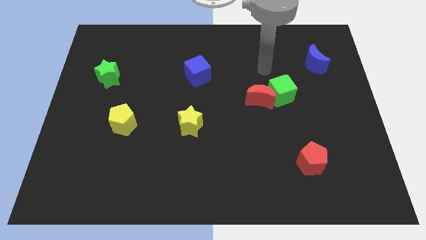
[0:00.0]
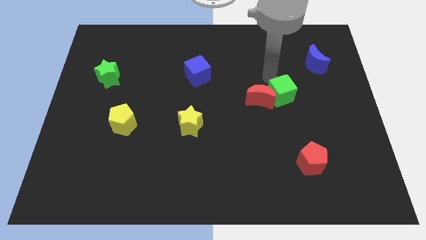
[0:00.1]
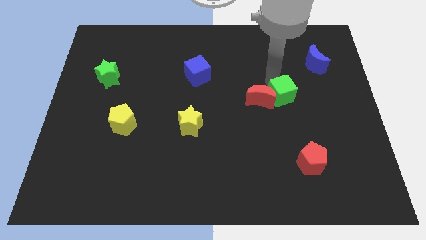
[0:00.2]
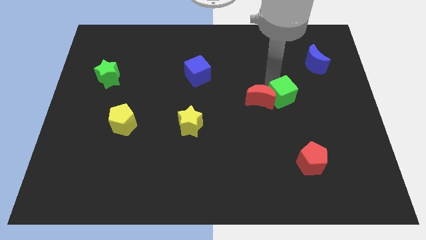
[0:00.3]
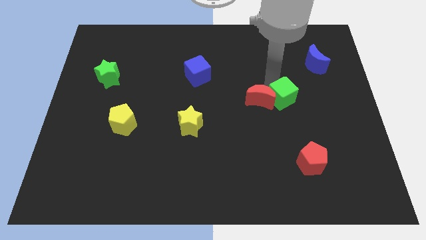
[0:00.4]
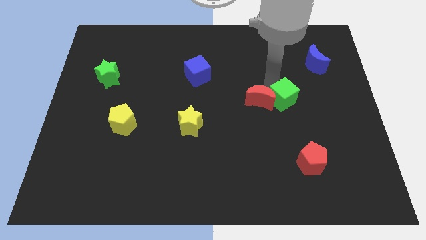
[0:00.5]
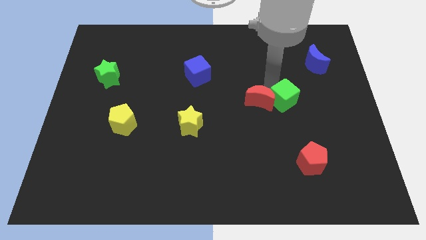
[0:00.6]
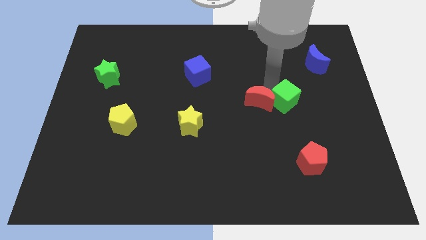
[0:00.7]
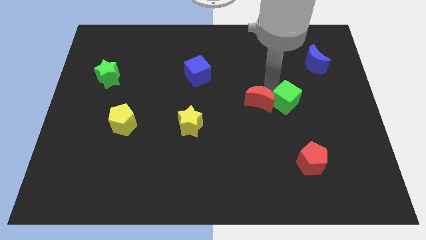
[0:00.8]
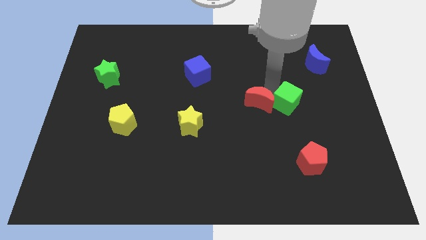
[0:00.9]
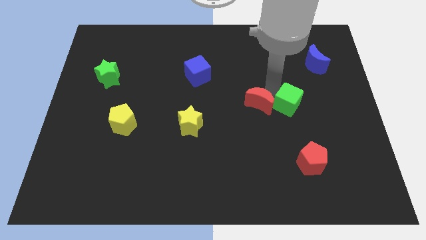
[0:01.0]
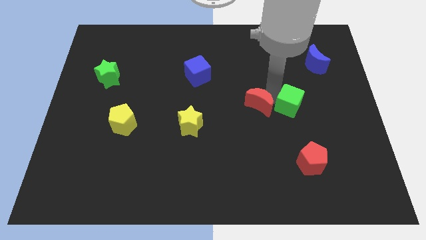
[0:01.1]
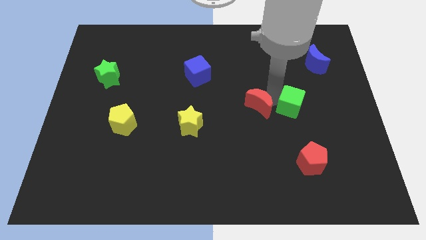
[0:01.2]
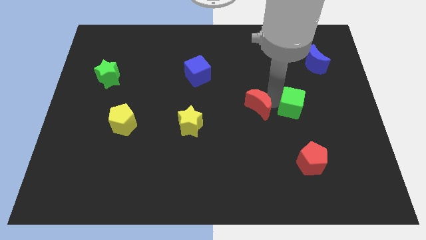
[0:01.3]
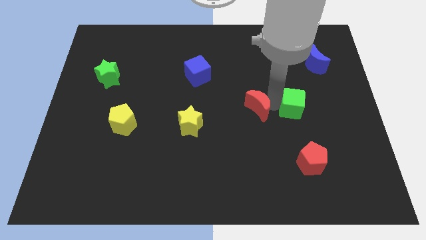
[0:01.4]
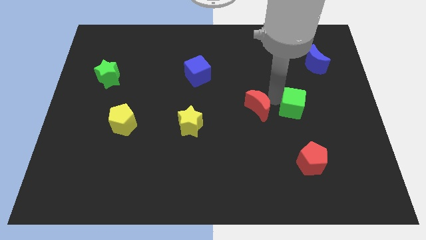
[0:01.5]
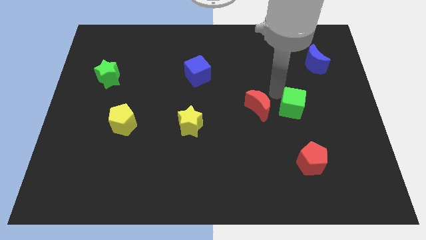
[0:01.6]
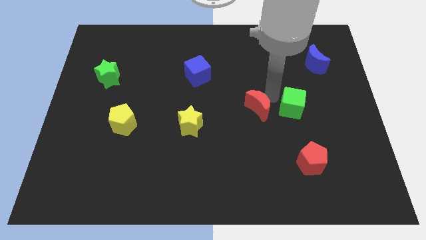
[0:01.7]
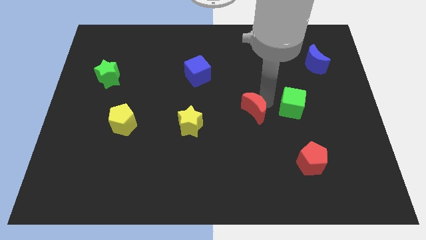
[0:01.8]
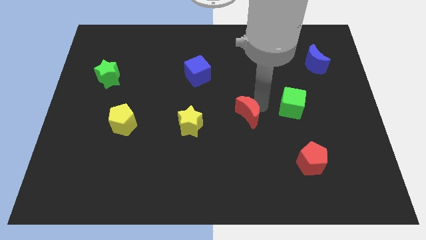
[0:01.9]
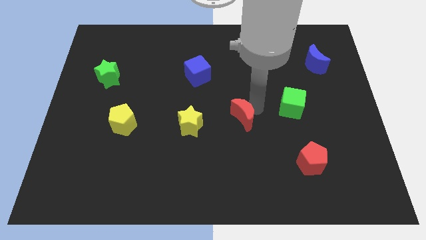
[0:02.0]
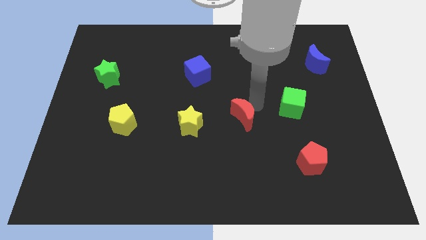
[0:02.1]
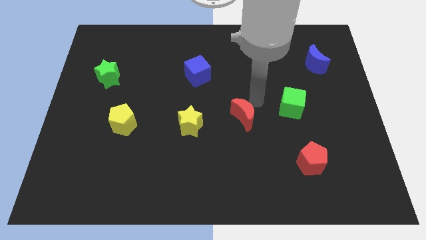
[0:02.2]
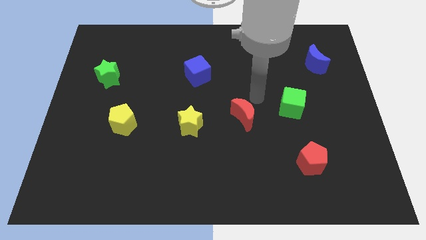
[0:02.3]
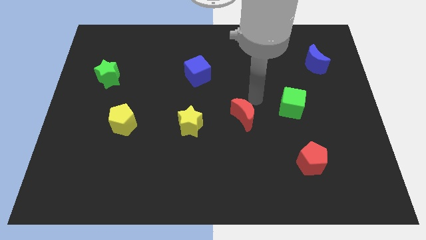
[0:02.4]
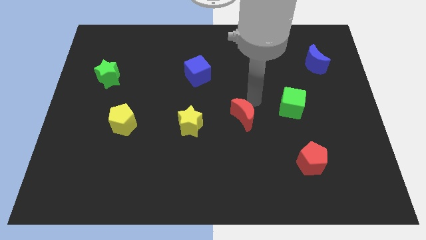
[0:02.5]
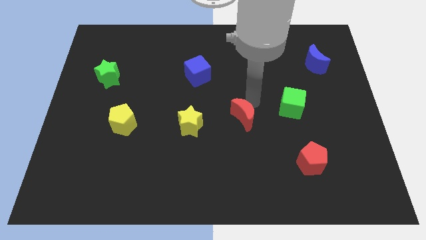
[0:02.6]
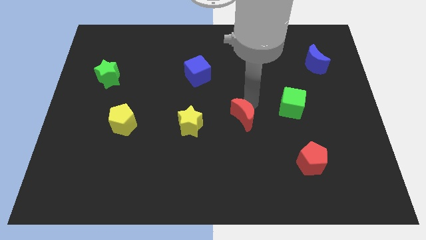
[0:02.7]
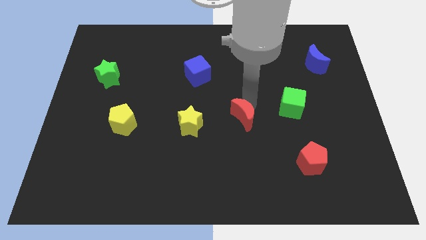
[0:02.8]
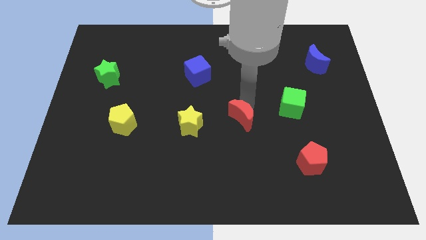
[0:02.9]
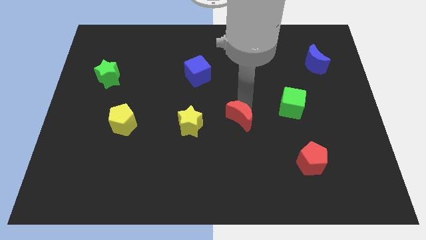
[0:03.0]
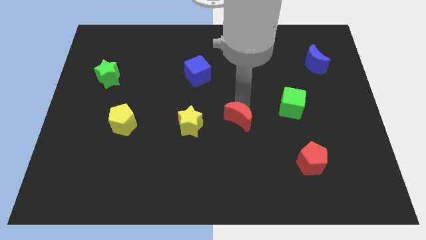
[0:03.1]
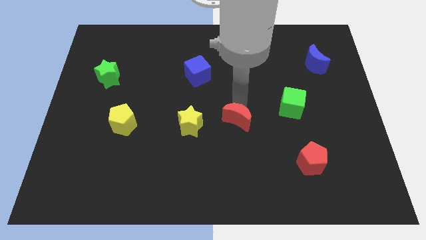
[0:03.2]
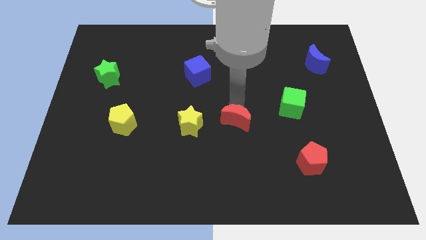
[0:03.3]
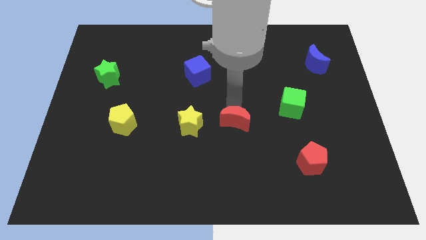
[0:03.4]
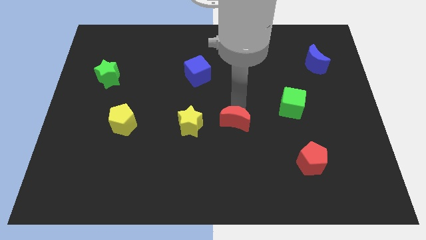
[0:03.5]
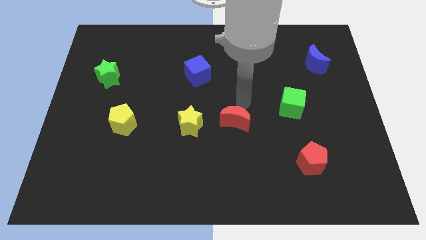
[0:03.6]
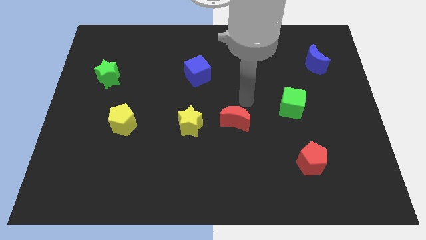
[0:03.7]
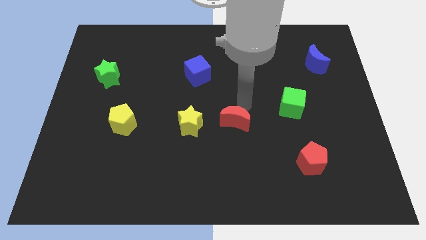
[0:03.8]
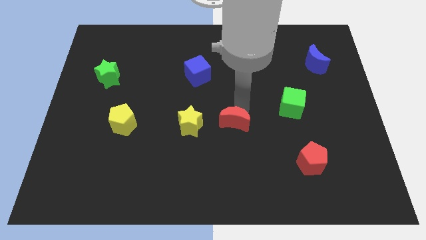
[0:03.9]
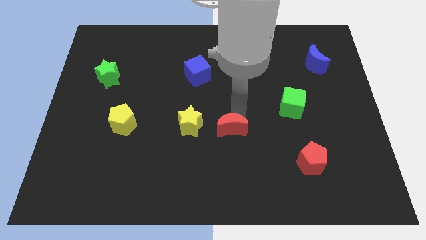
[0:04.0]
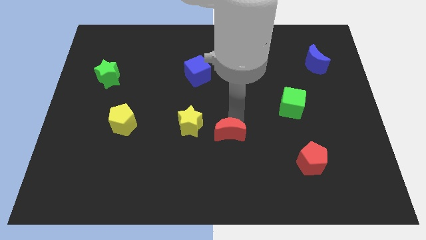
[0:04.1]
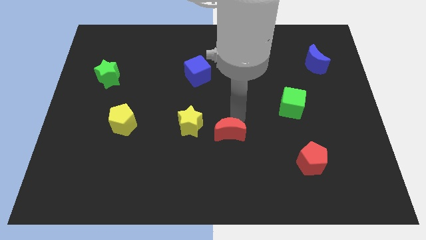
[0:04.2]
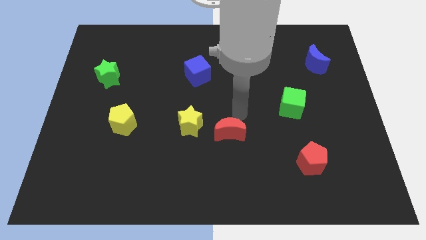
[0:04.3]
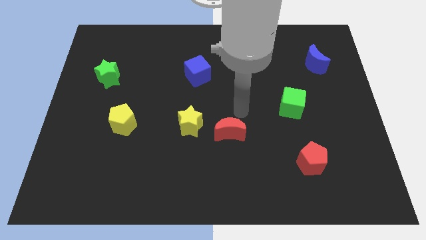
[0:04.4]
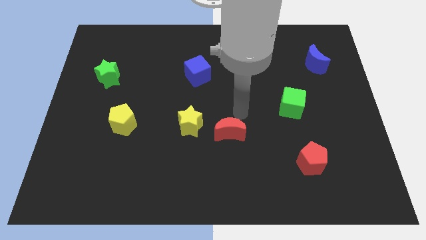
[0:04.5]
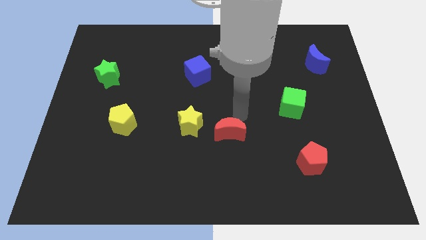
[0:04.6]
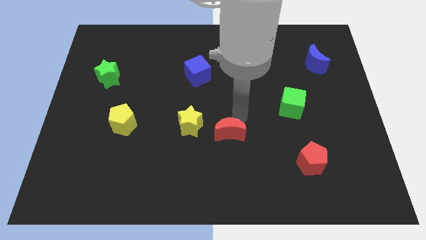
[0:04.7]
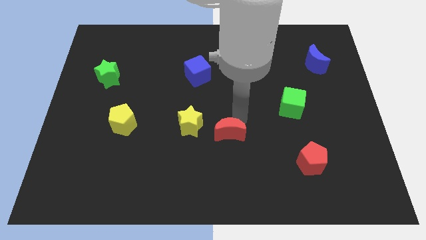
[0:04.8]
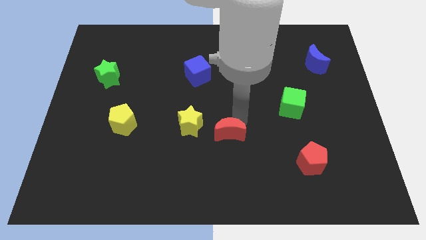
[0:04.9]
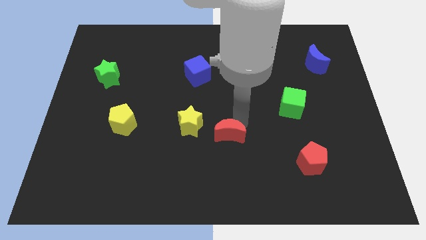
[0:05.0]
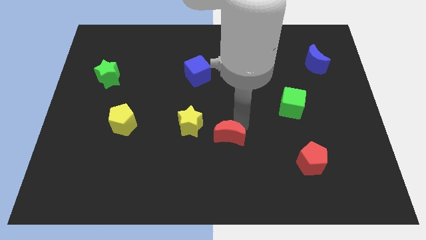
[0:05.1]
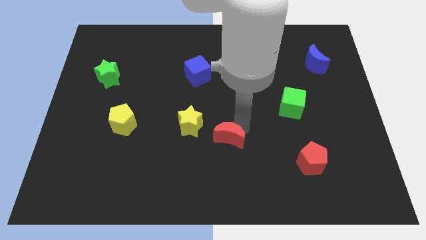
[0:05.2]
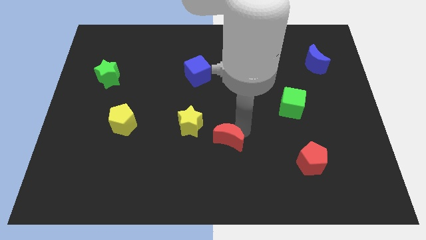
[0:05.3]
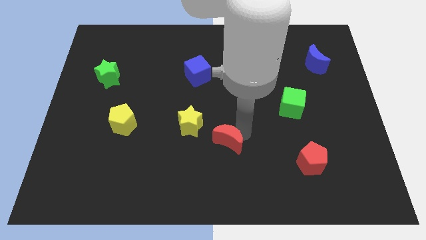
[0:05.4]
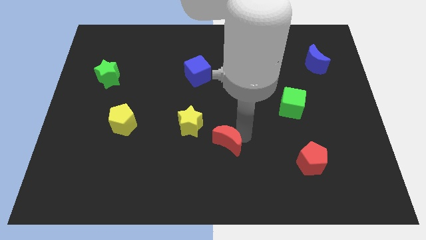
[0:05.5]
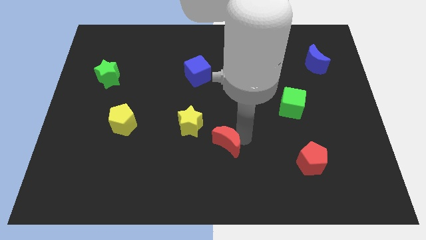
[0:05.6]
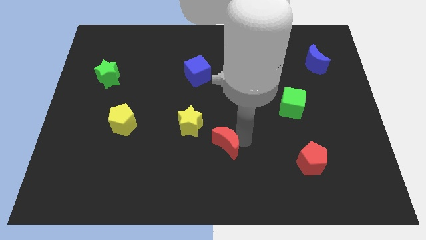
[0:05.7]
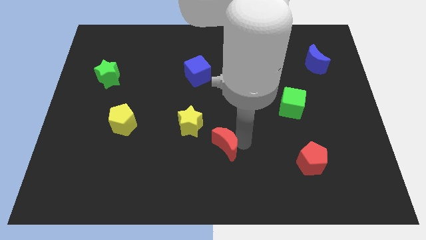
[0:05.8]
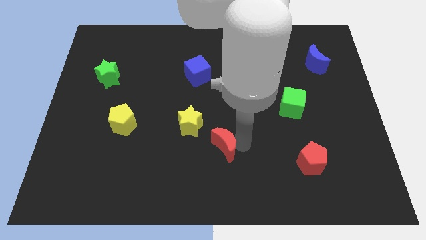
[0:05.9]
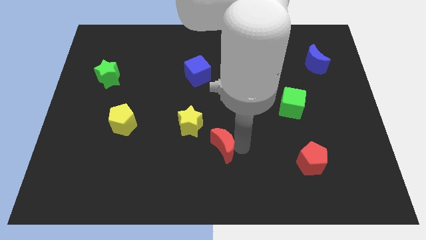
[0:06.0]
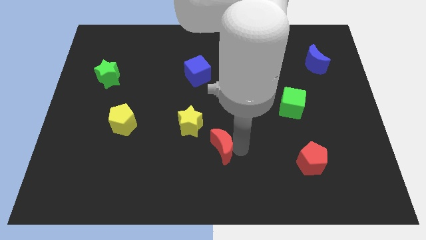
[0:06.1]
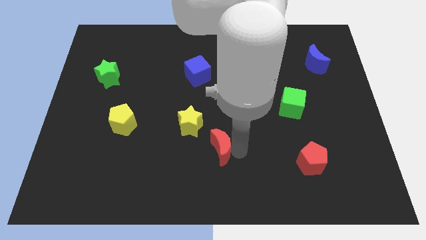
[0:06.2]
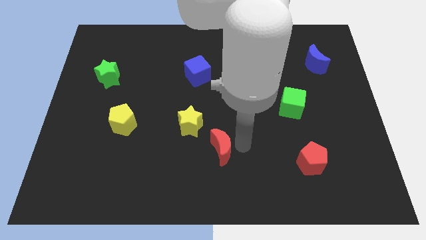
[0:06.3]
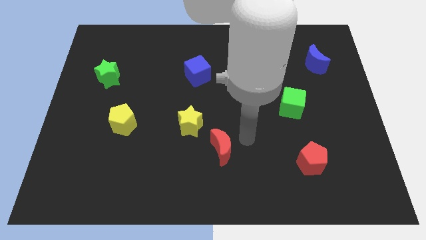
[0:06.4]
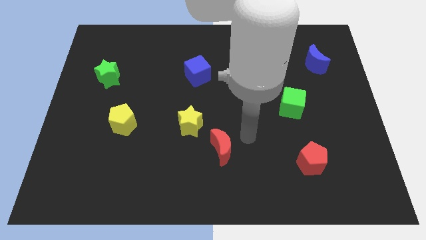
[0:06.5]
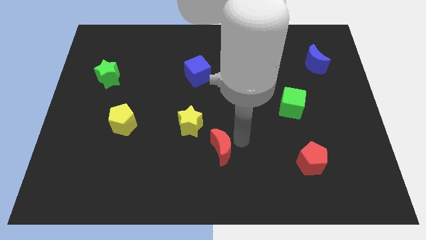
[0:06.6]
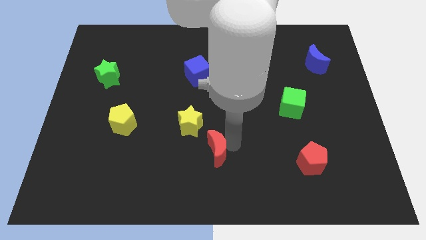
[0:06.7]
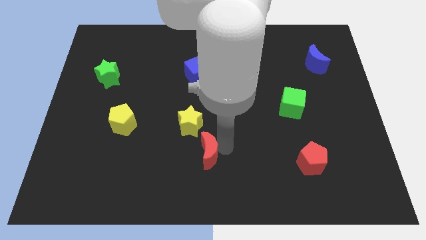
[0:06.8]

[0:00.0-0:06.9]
slide the red moon to the bottom side of the yellow star

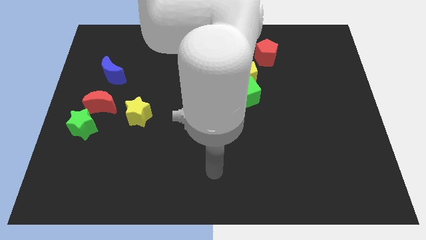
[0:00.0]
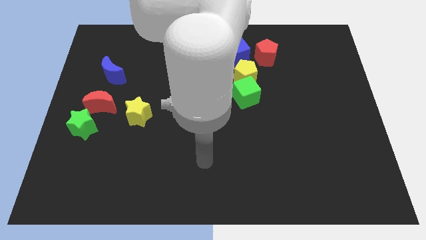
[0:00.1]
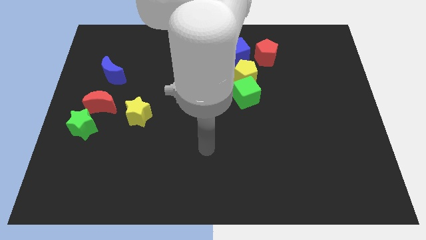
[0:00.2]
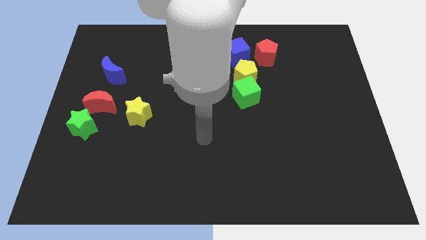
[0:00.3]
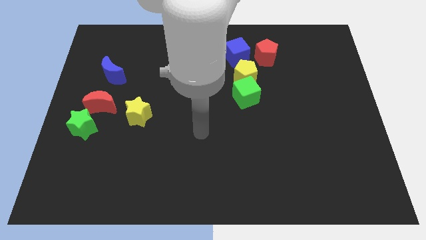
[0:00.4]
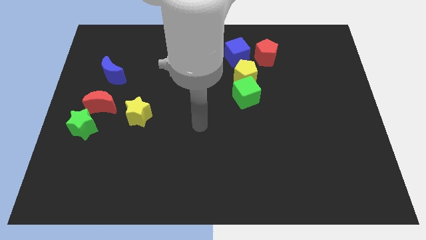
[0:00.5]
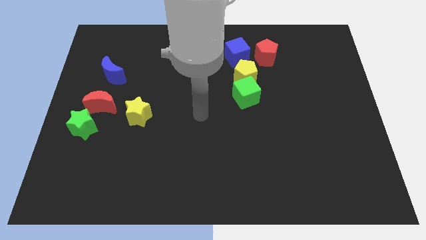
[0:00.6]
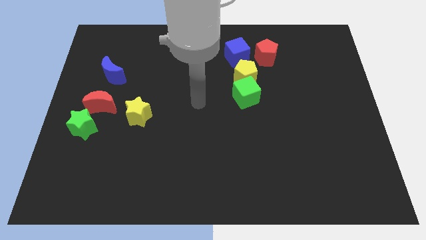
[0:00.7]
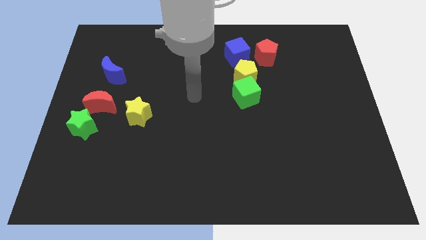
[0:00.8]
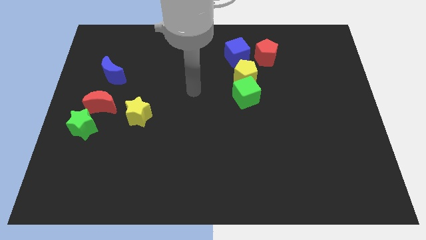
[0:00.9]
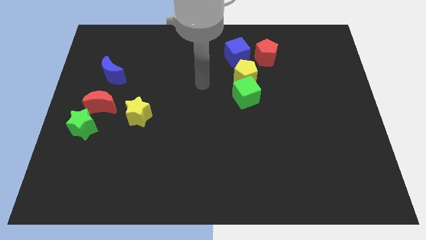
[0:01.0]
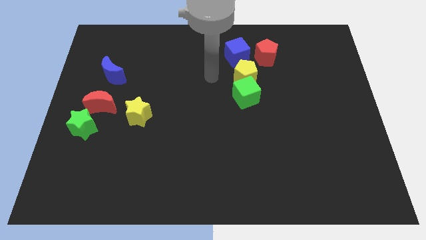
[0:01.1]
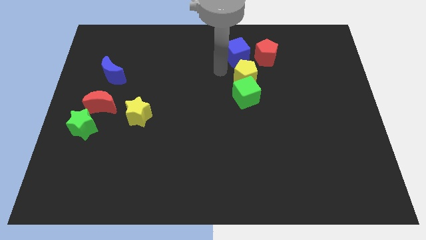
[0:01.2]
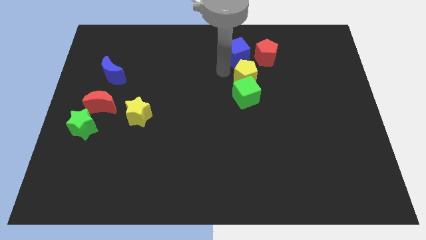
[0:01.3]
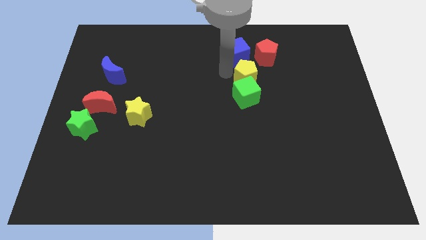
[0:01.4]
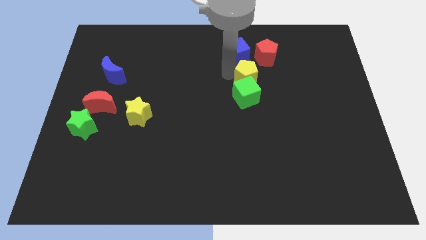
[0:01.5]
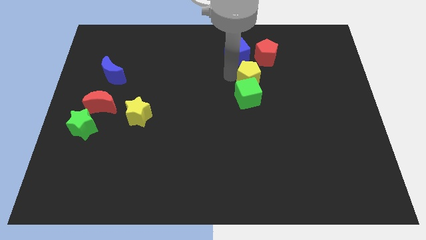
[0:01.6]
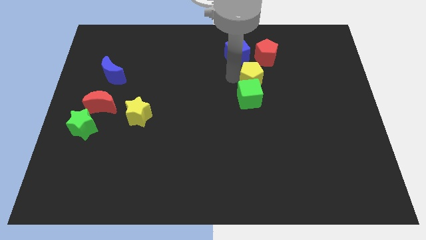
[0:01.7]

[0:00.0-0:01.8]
push the yellow pentagon to the bottom side of the red pentagon
